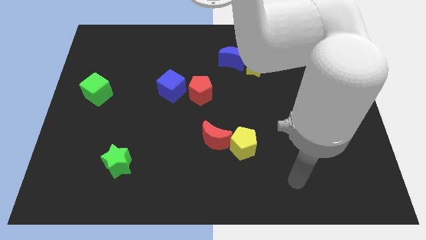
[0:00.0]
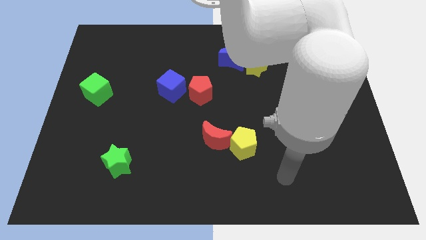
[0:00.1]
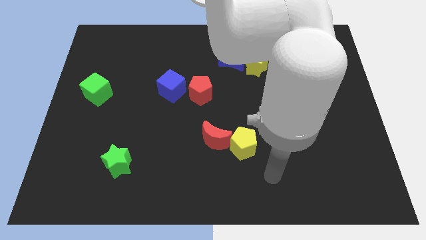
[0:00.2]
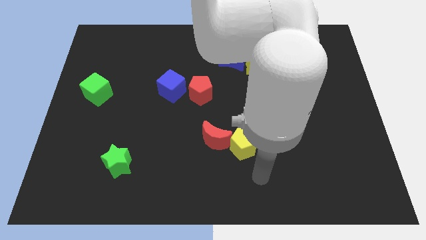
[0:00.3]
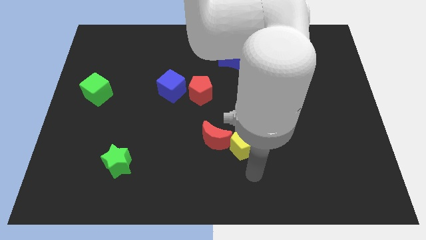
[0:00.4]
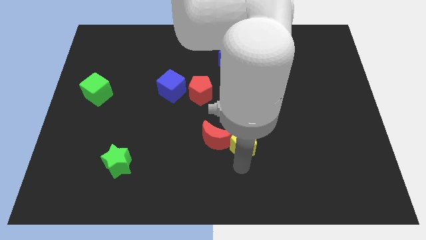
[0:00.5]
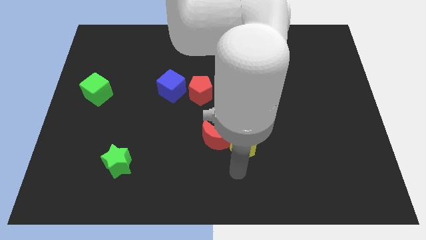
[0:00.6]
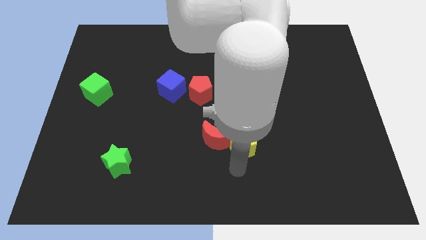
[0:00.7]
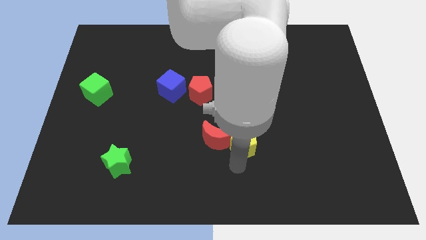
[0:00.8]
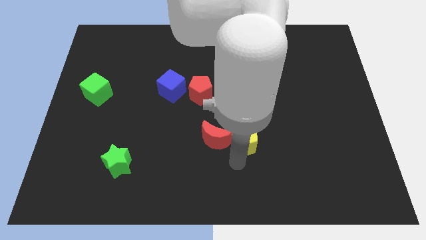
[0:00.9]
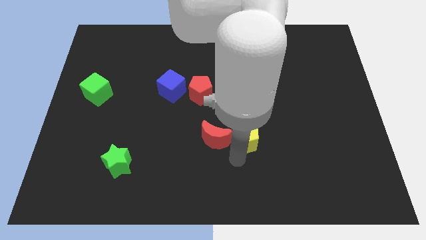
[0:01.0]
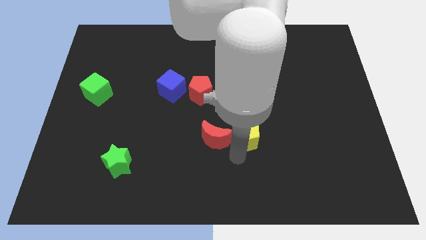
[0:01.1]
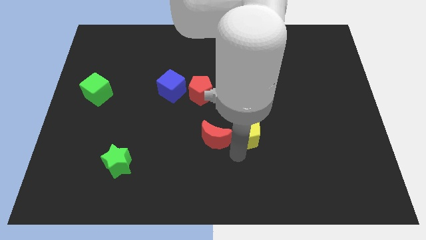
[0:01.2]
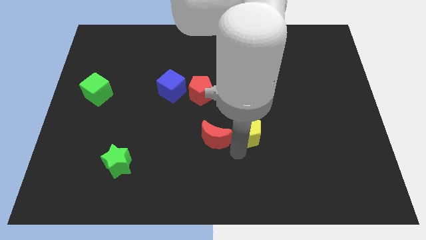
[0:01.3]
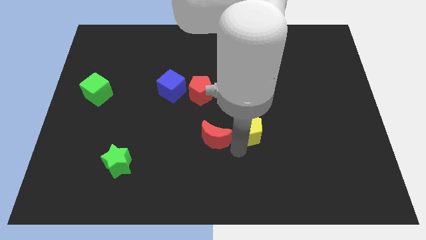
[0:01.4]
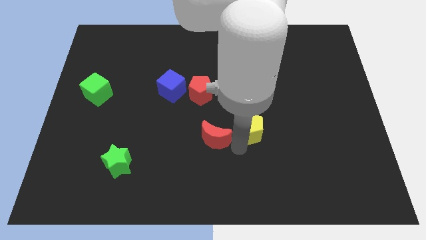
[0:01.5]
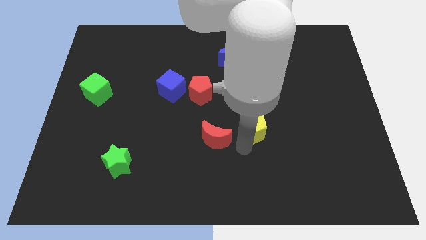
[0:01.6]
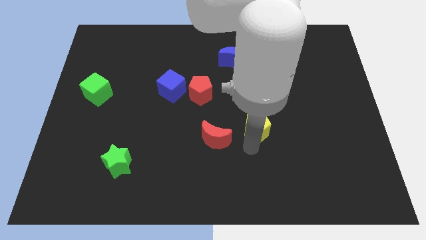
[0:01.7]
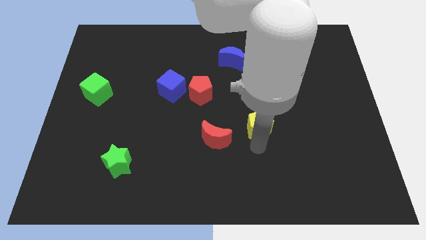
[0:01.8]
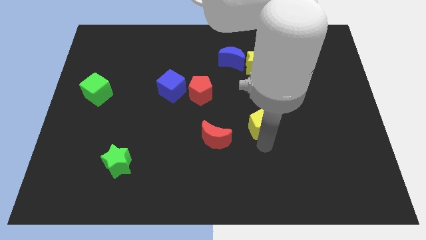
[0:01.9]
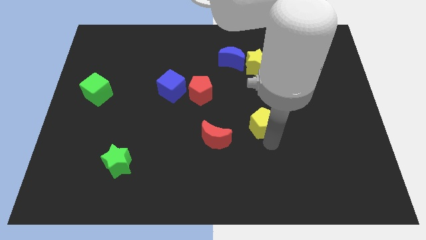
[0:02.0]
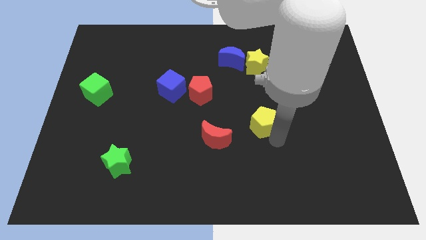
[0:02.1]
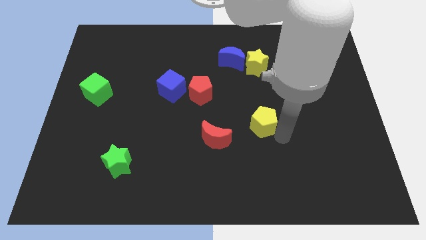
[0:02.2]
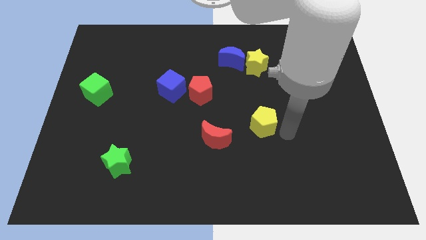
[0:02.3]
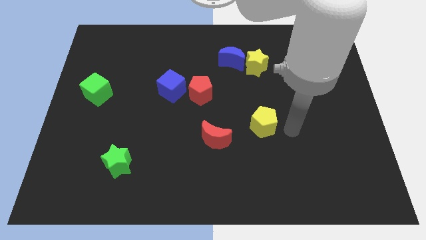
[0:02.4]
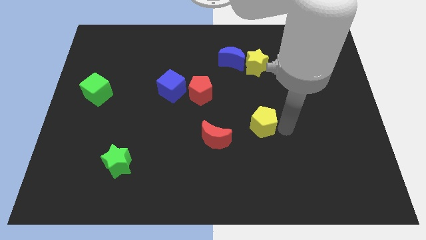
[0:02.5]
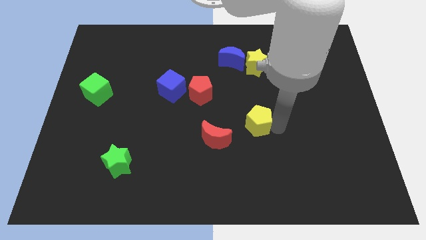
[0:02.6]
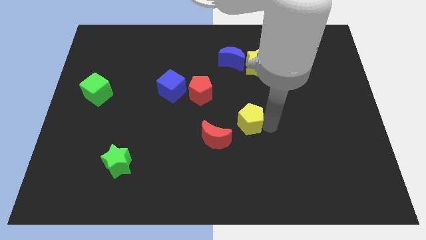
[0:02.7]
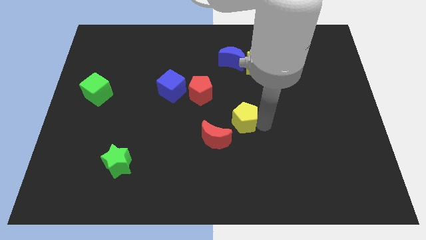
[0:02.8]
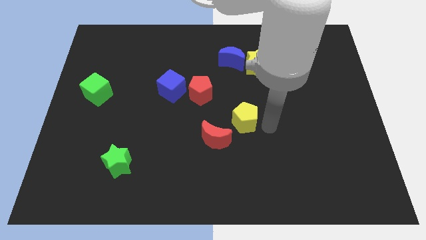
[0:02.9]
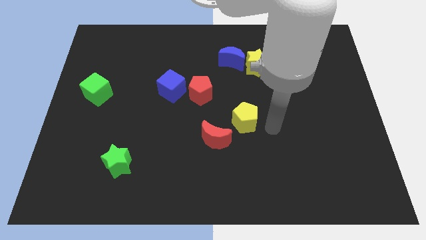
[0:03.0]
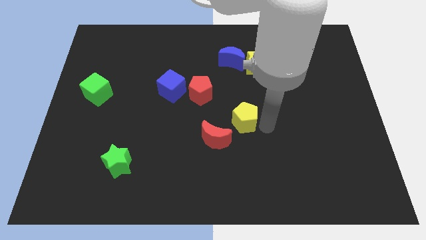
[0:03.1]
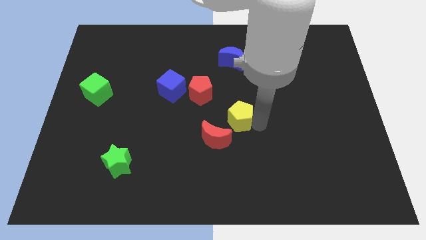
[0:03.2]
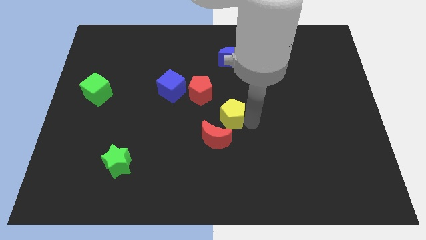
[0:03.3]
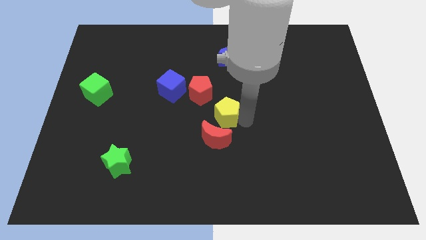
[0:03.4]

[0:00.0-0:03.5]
slightly move the yellow pentagon diagonally up and to the left

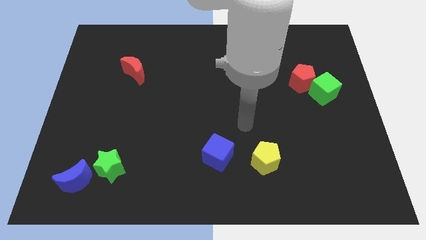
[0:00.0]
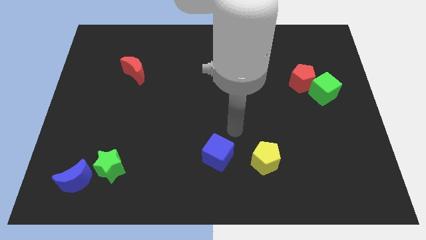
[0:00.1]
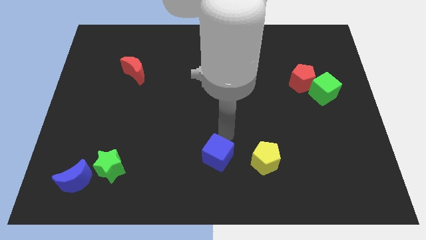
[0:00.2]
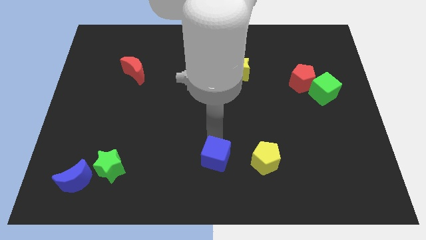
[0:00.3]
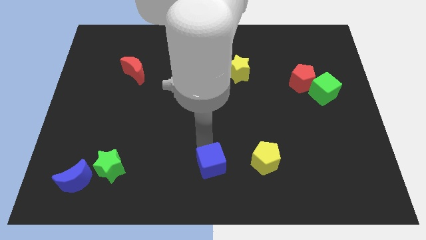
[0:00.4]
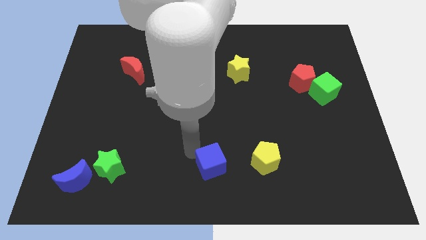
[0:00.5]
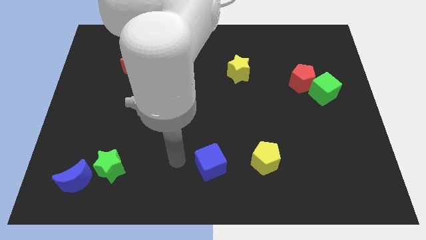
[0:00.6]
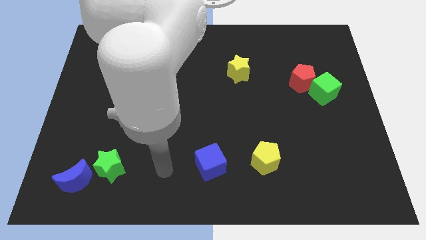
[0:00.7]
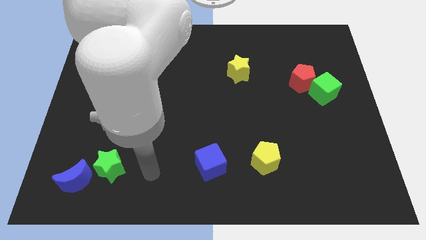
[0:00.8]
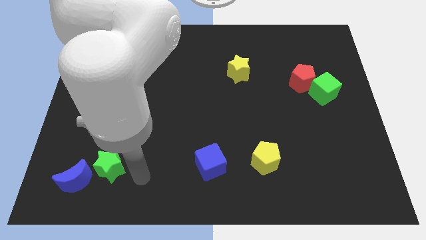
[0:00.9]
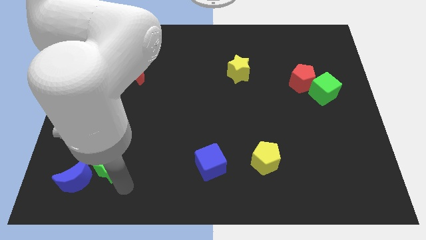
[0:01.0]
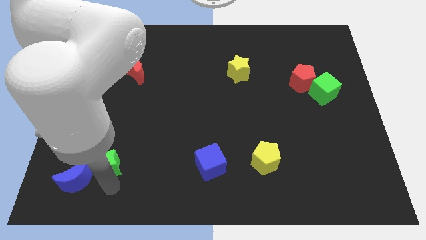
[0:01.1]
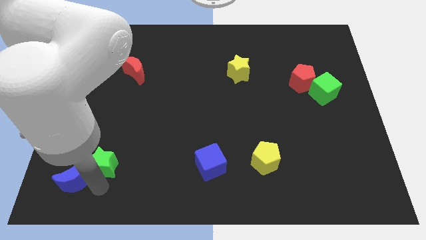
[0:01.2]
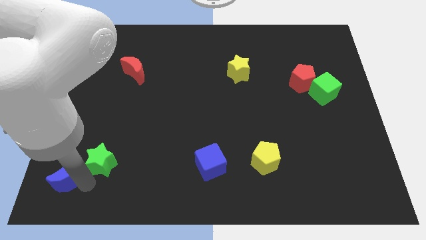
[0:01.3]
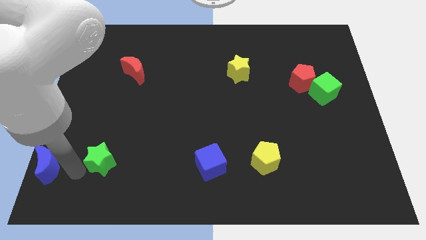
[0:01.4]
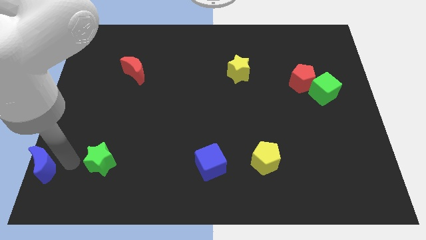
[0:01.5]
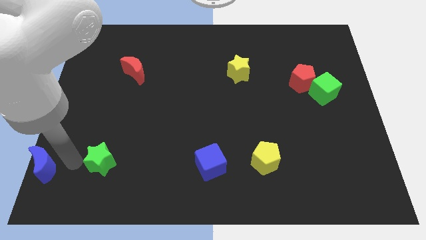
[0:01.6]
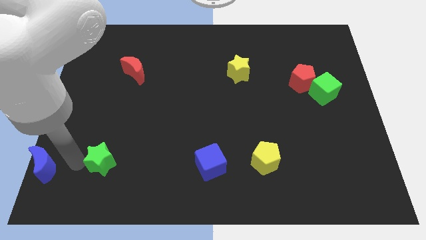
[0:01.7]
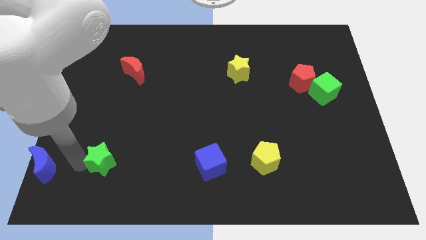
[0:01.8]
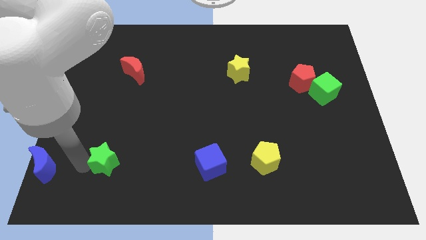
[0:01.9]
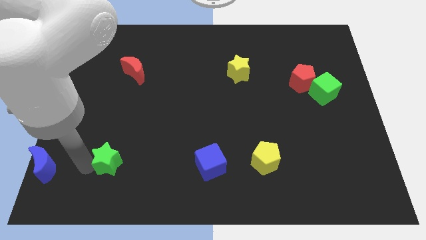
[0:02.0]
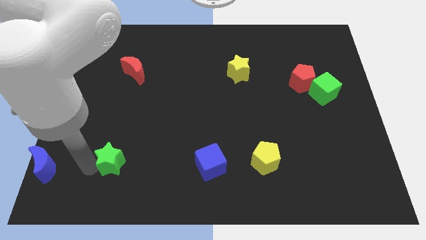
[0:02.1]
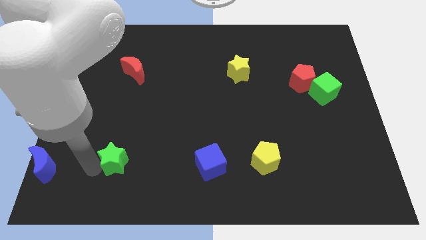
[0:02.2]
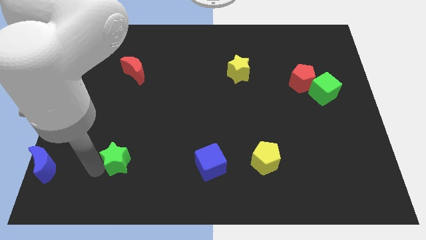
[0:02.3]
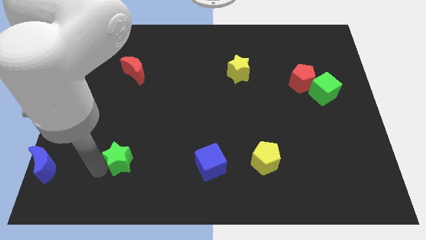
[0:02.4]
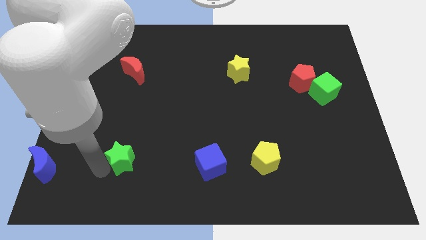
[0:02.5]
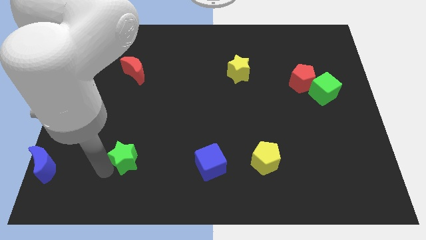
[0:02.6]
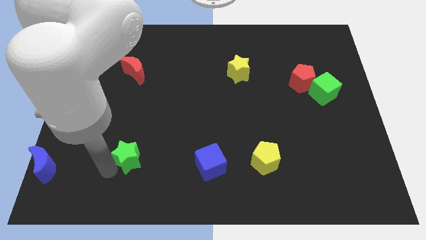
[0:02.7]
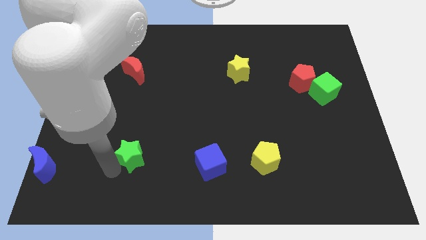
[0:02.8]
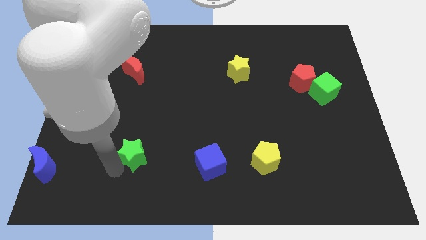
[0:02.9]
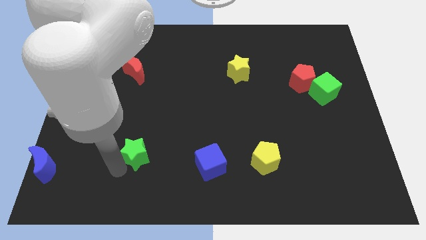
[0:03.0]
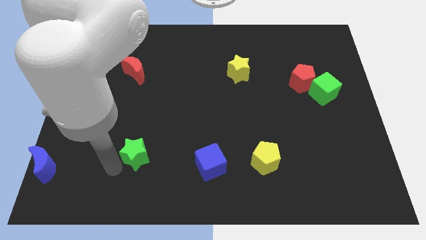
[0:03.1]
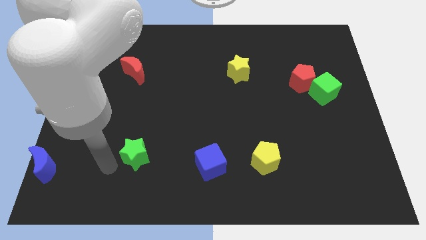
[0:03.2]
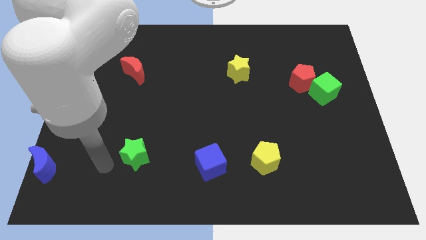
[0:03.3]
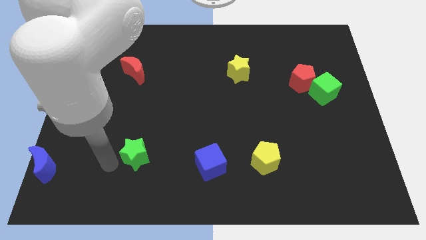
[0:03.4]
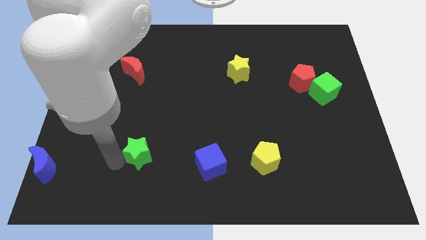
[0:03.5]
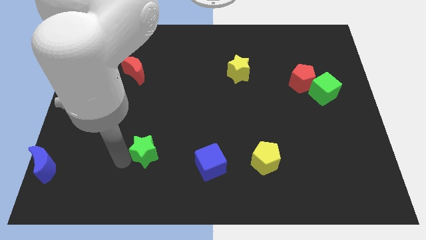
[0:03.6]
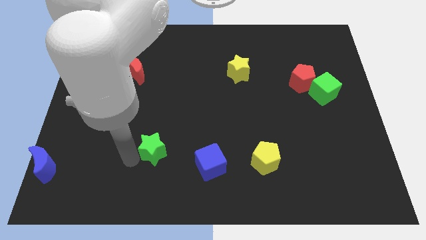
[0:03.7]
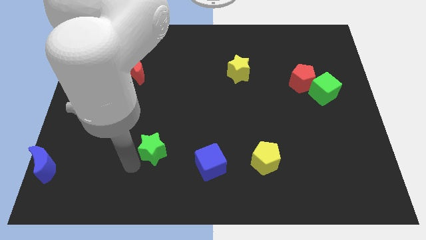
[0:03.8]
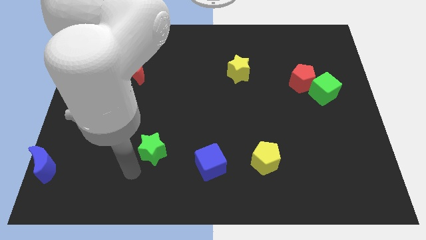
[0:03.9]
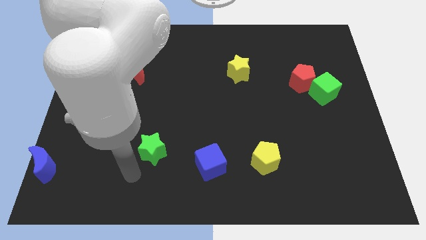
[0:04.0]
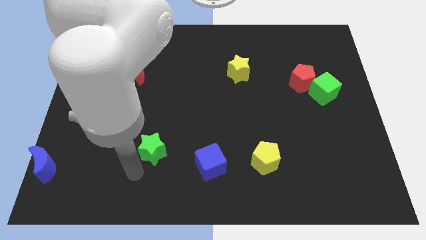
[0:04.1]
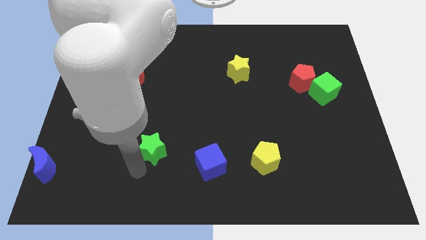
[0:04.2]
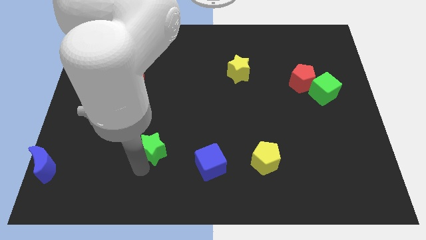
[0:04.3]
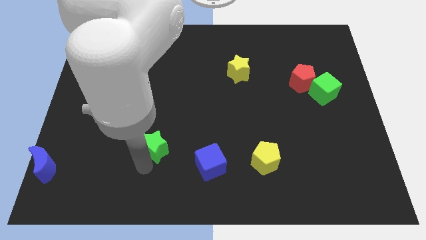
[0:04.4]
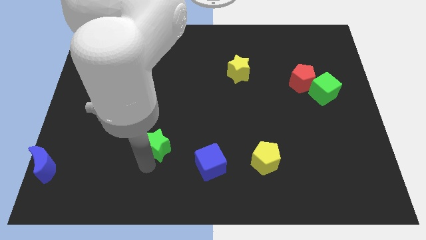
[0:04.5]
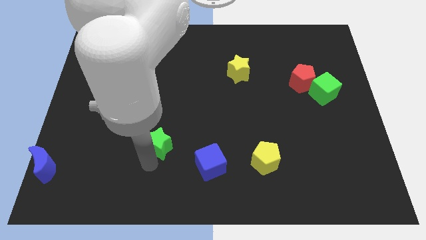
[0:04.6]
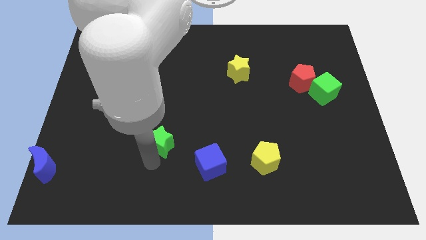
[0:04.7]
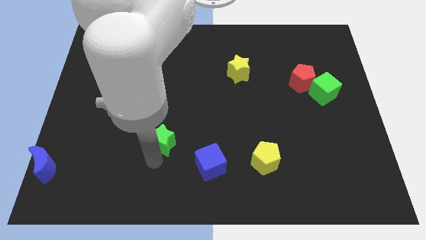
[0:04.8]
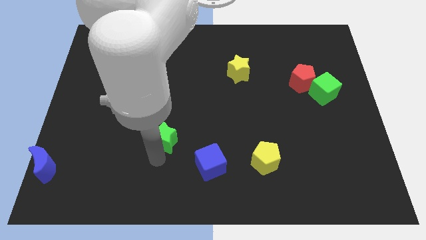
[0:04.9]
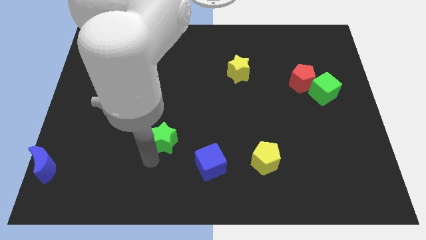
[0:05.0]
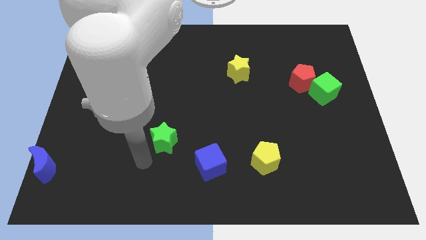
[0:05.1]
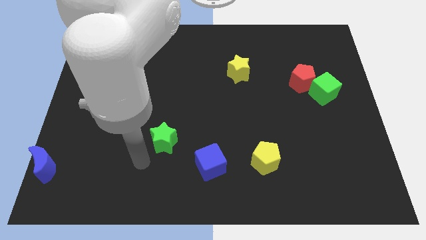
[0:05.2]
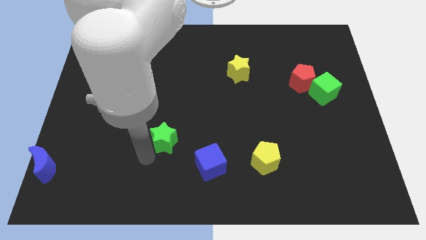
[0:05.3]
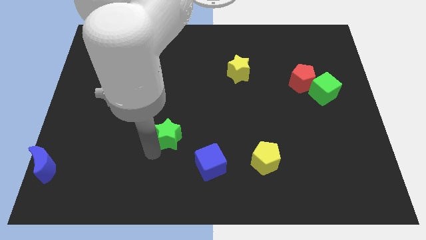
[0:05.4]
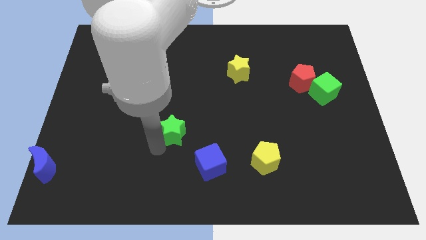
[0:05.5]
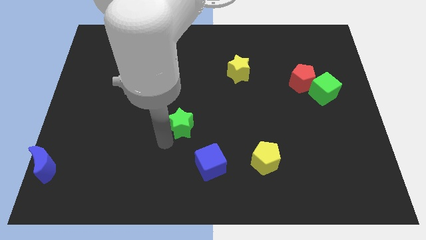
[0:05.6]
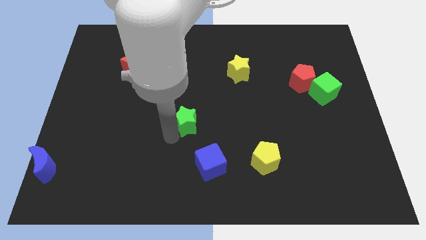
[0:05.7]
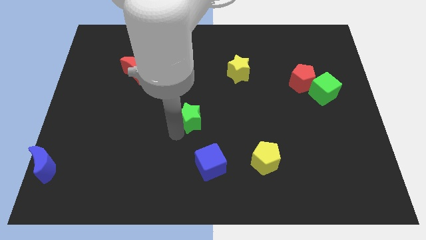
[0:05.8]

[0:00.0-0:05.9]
move the green star upwards and then right
